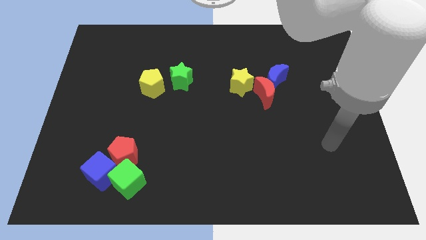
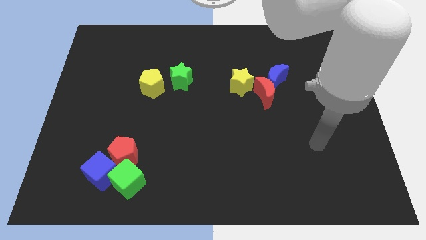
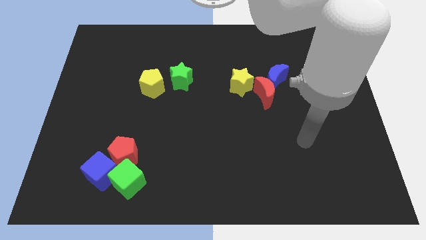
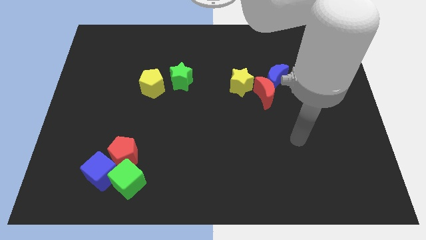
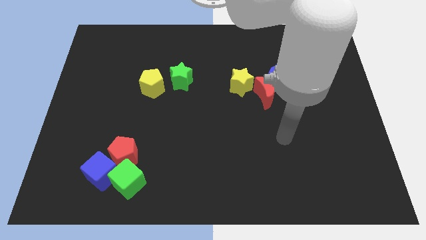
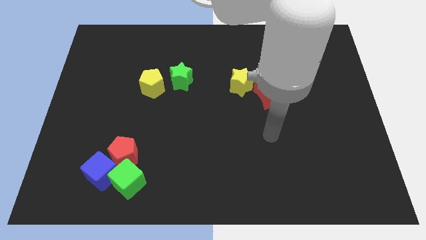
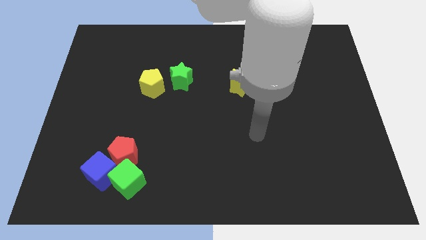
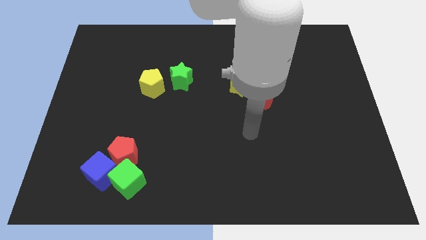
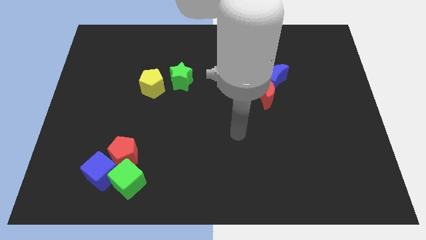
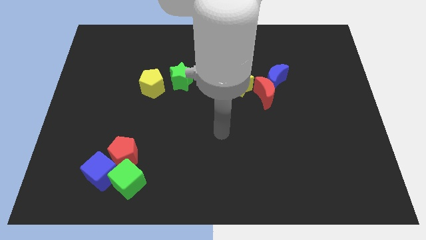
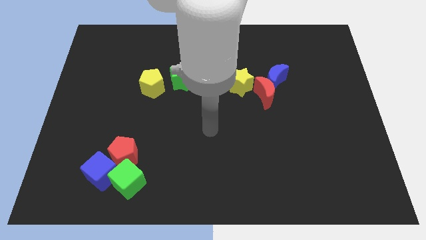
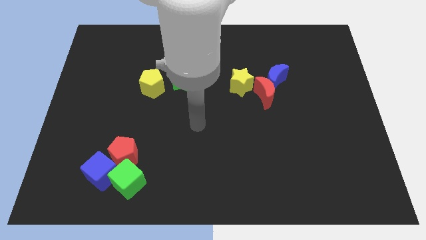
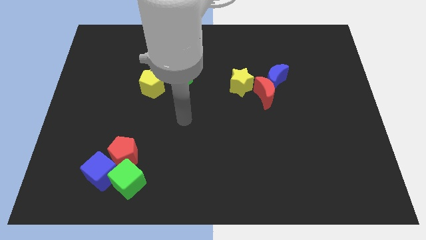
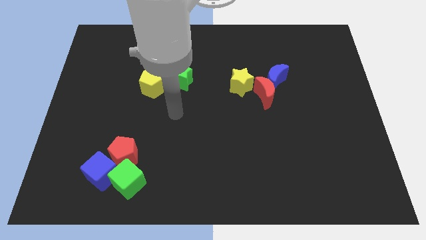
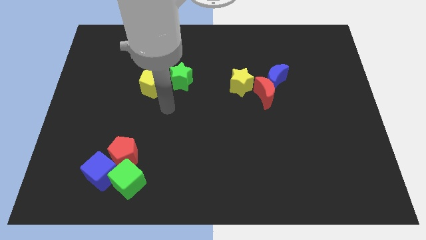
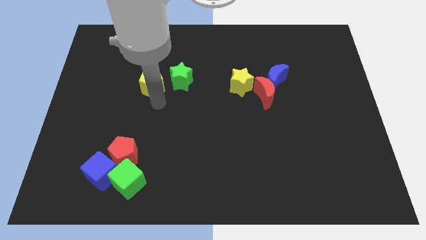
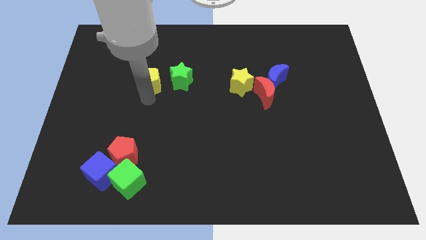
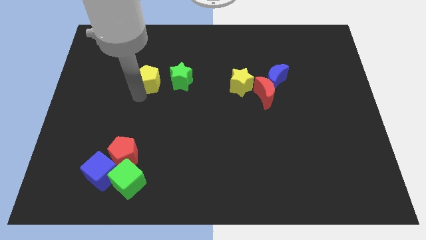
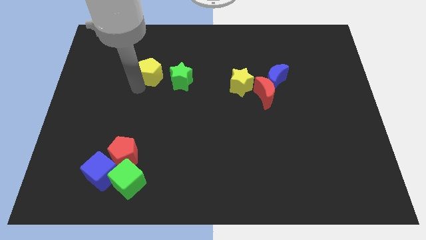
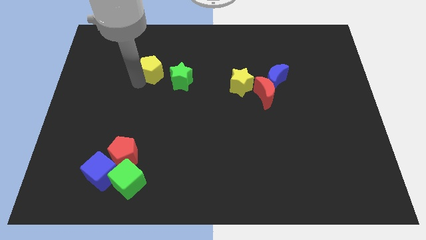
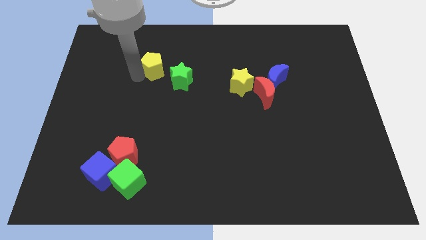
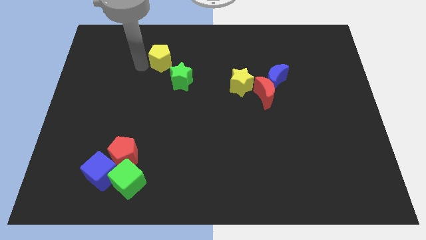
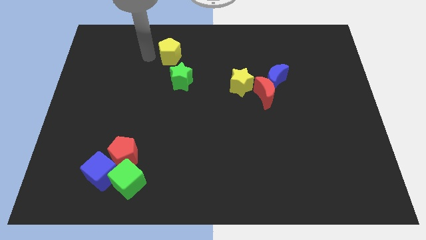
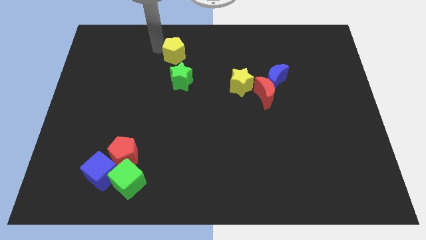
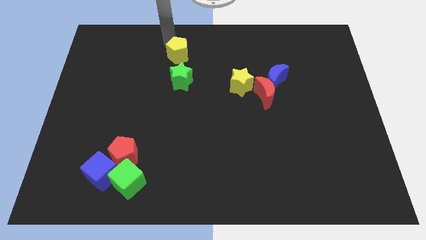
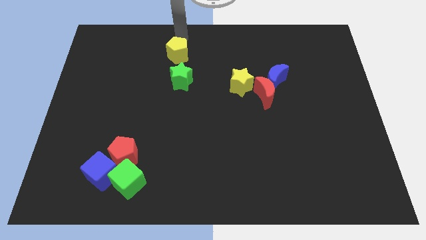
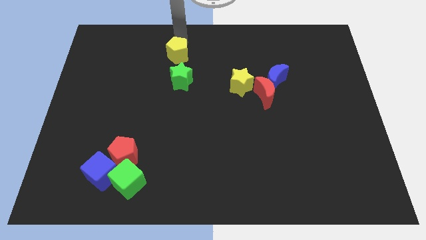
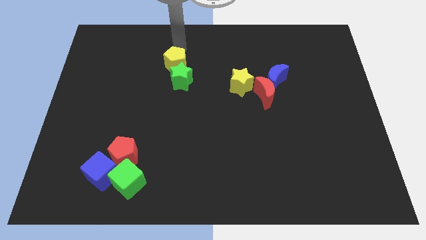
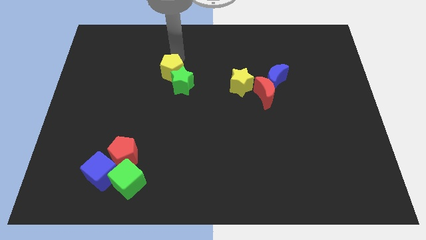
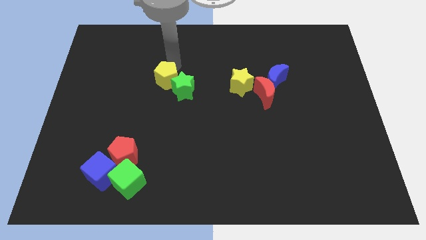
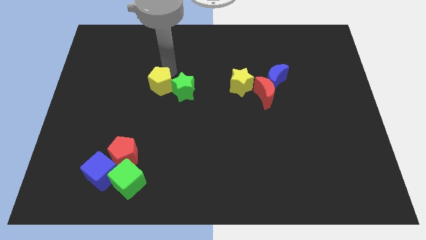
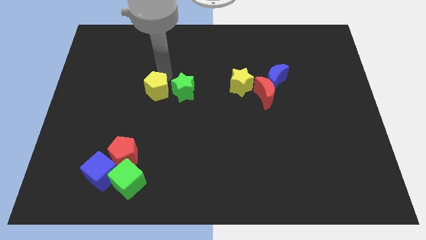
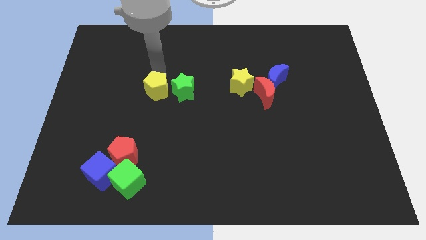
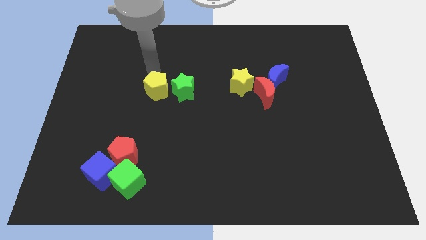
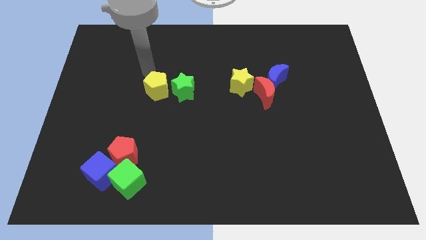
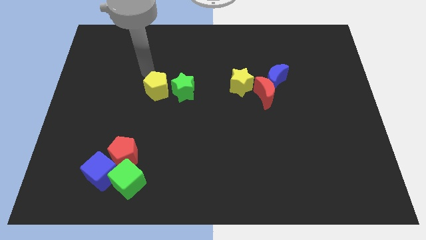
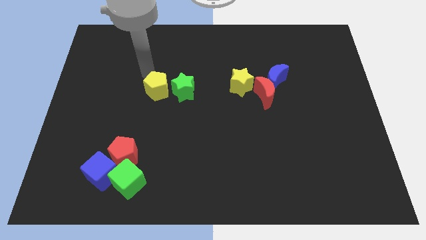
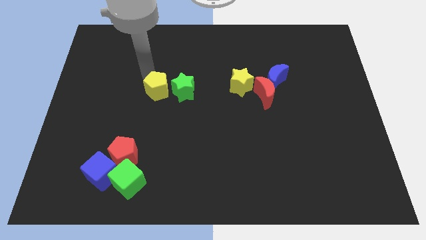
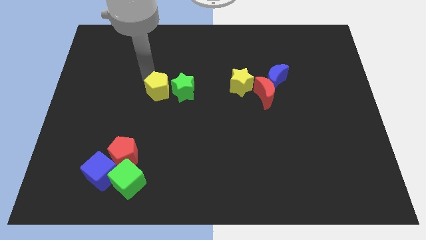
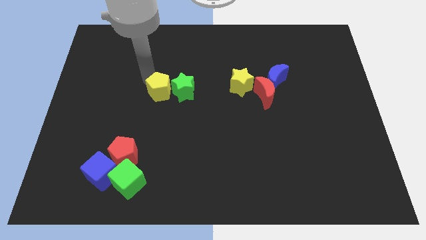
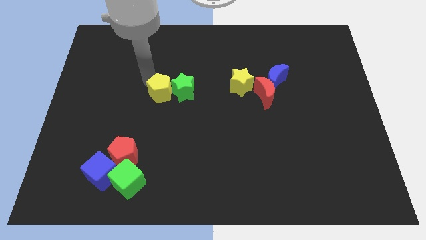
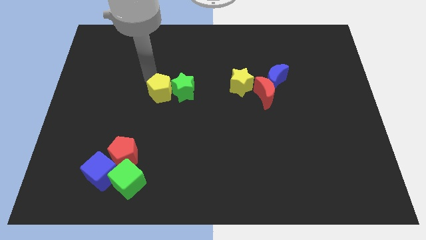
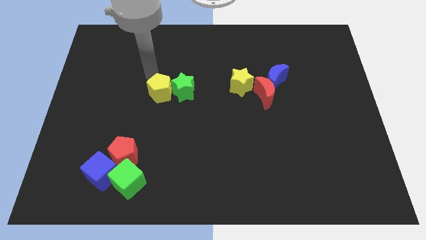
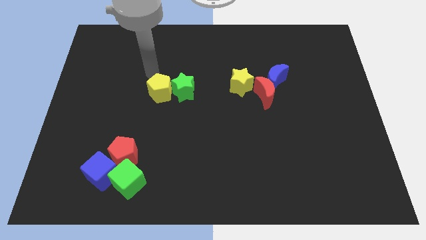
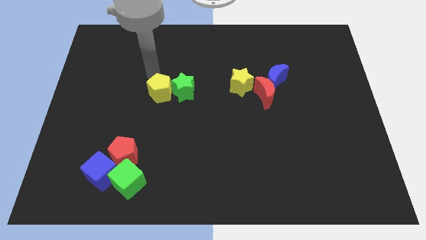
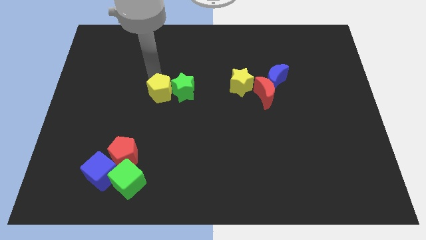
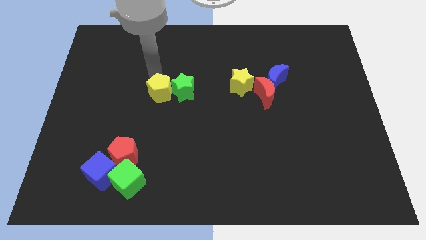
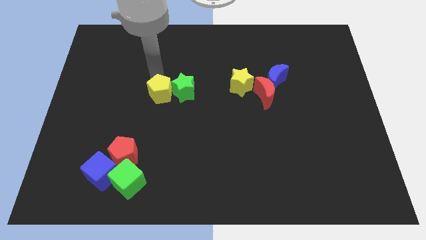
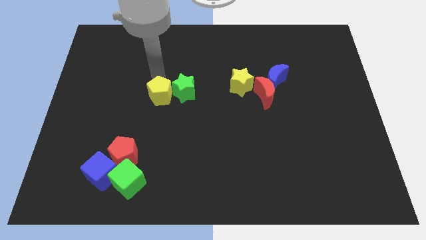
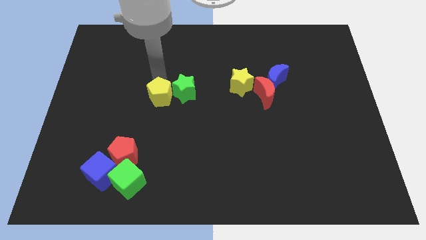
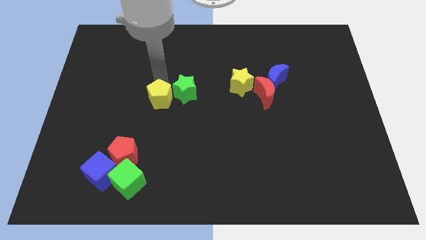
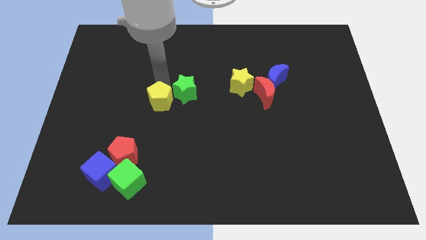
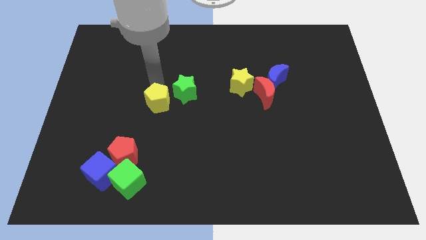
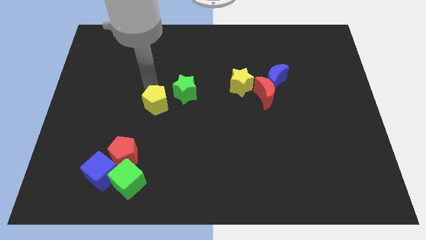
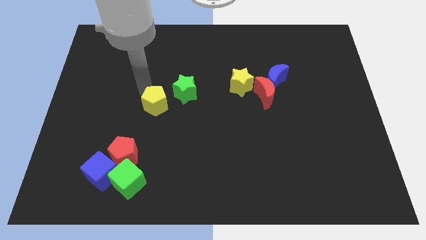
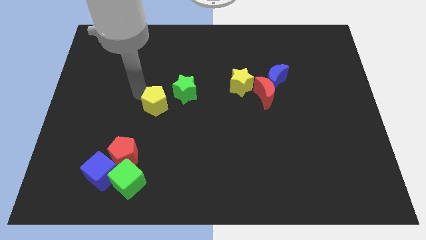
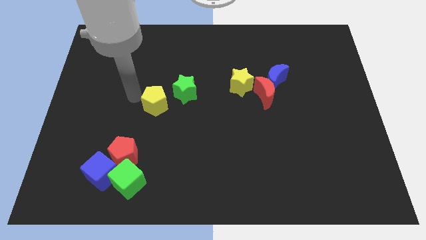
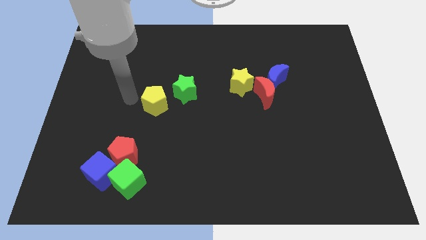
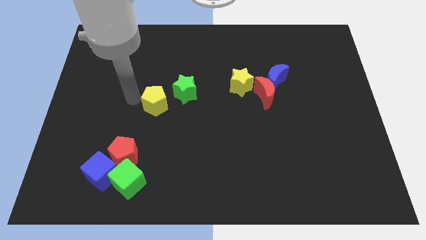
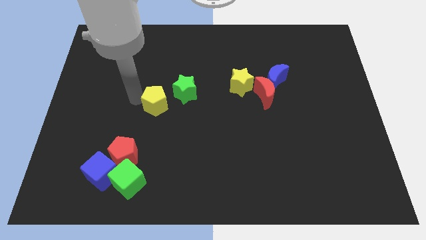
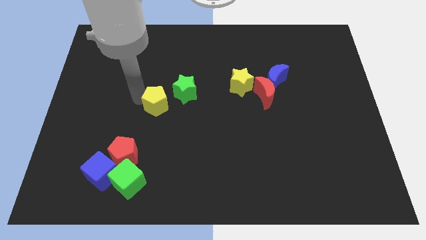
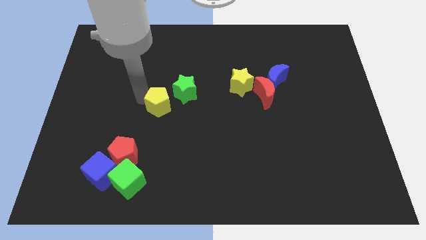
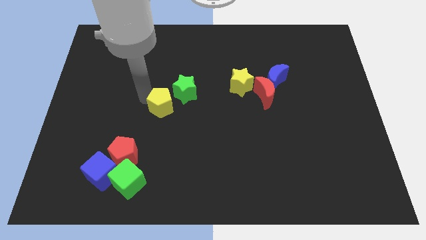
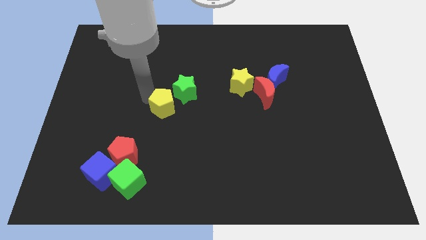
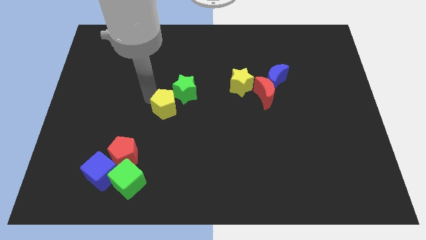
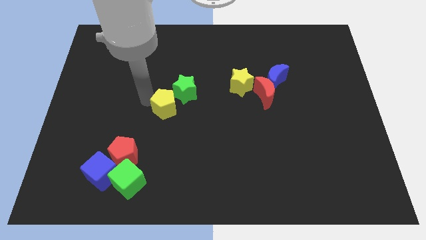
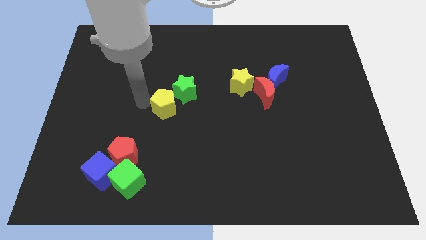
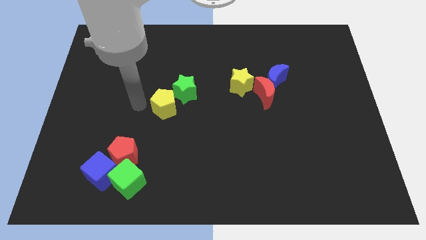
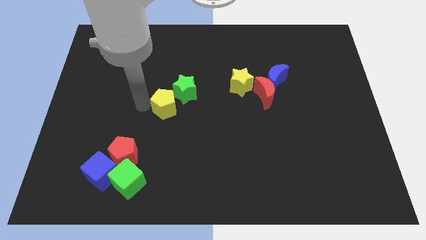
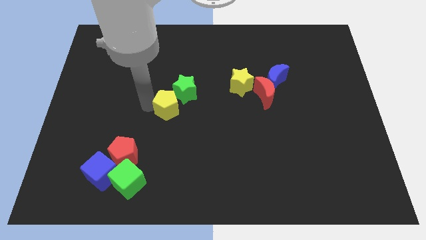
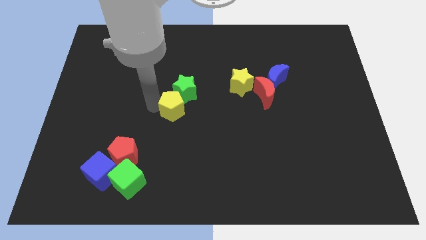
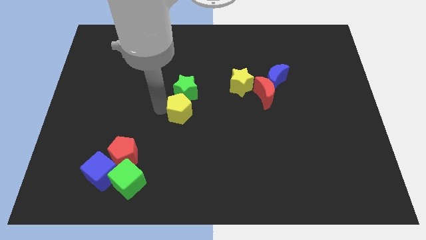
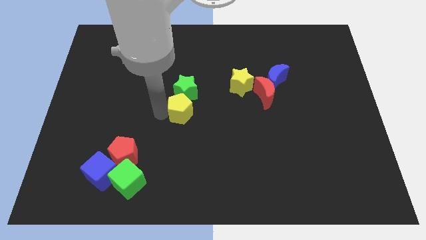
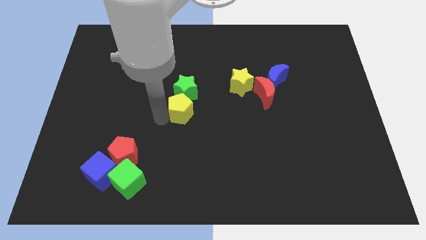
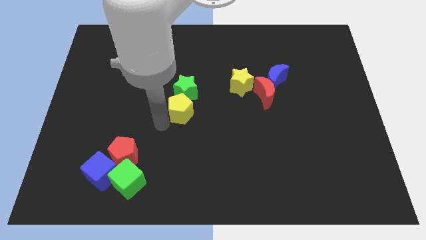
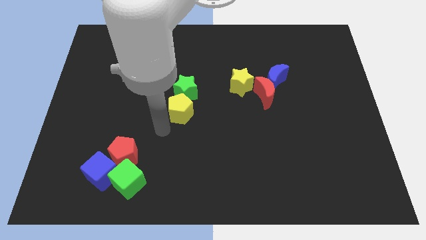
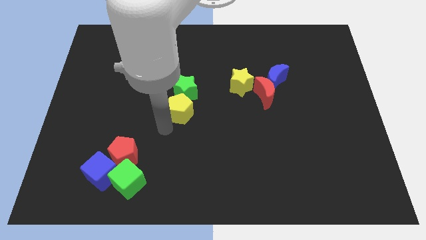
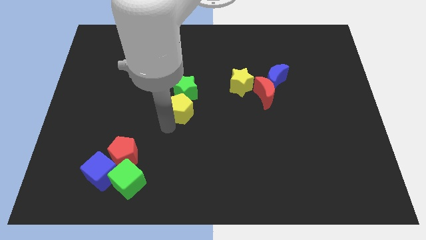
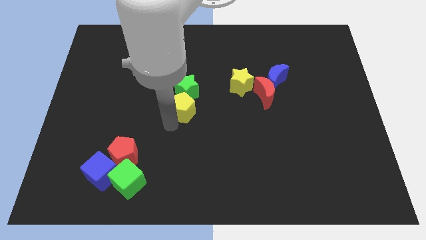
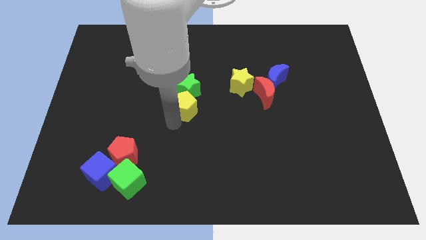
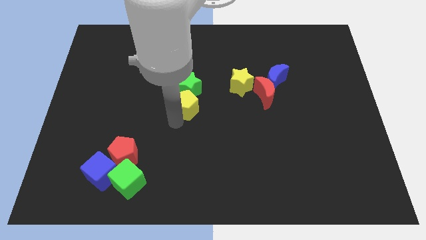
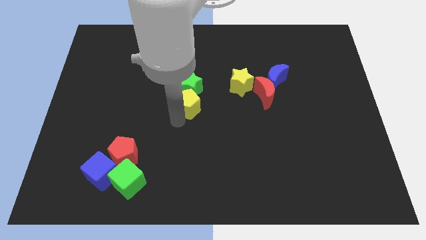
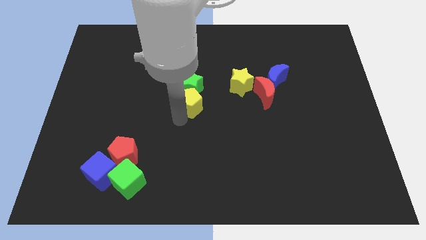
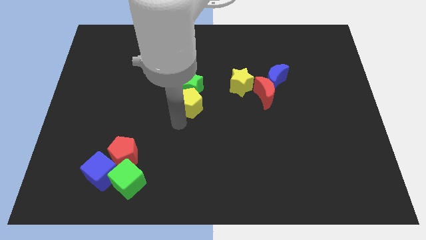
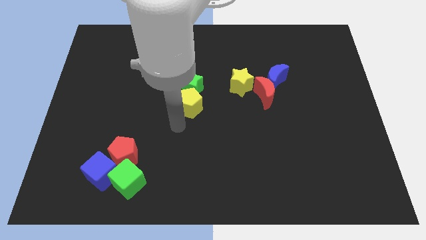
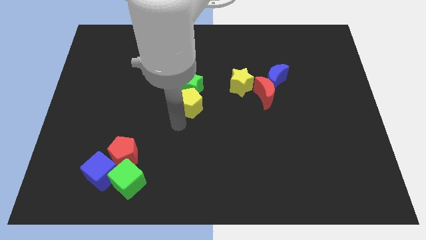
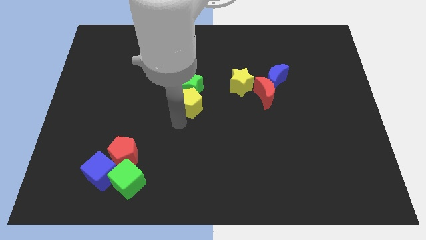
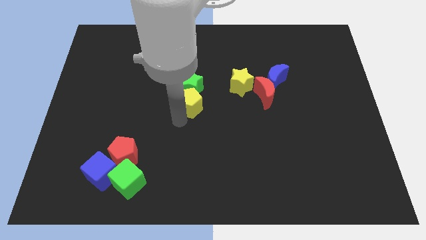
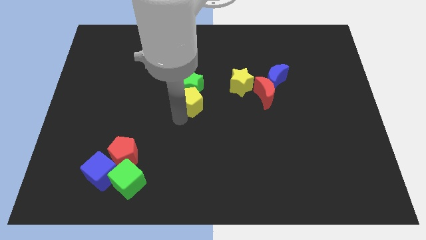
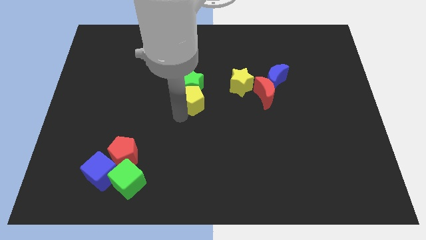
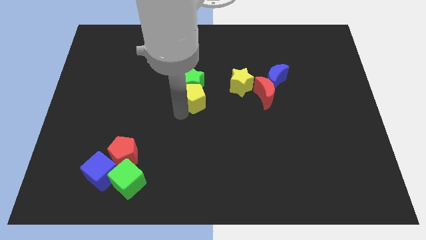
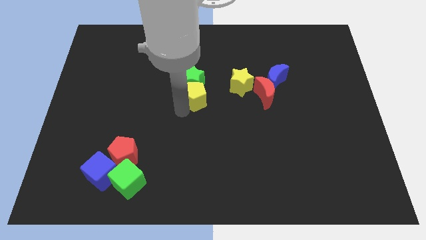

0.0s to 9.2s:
slide the yellow pentagon to the left side of the yellow star
